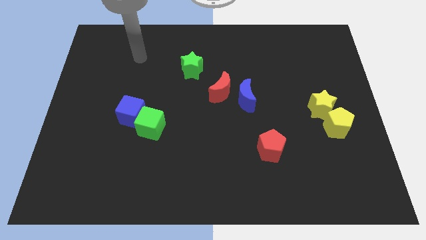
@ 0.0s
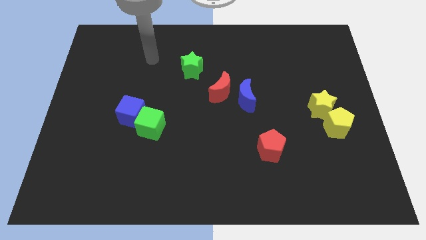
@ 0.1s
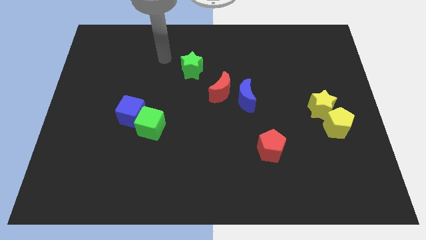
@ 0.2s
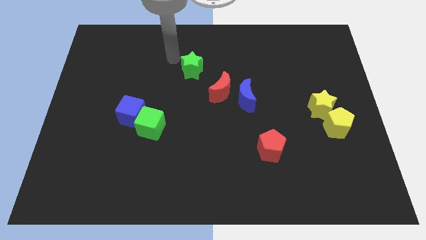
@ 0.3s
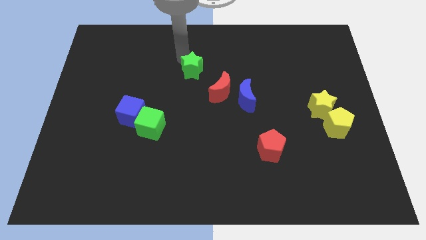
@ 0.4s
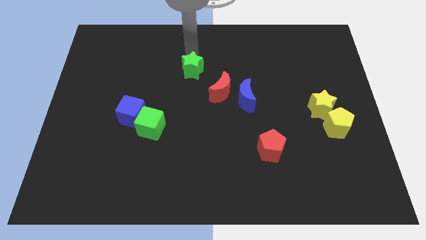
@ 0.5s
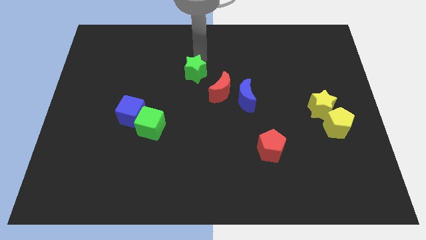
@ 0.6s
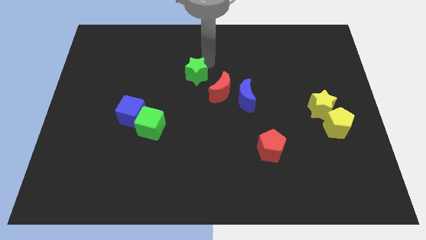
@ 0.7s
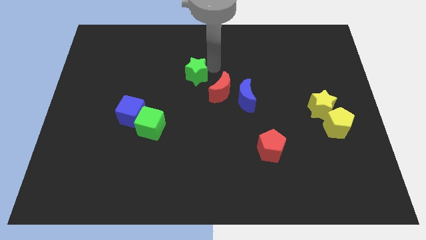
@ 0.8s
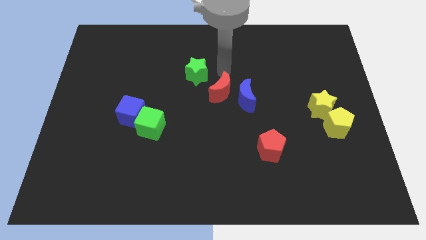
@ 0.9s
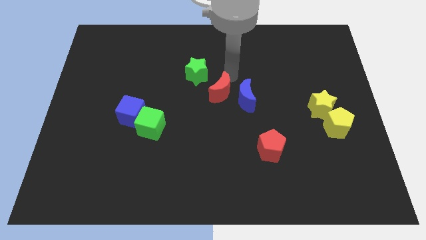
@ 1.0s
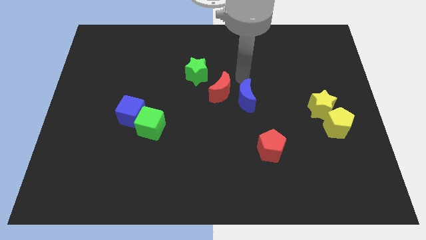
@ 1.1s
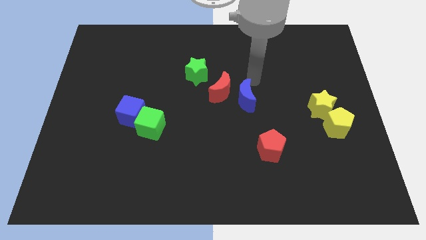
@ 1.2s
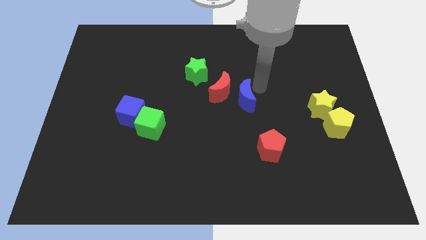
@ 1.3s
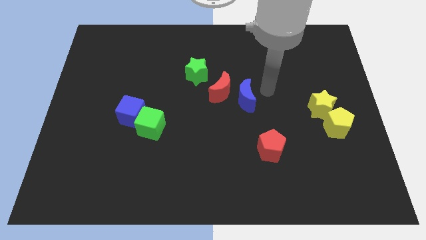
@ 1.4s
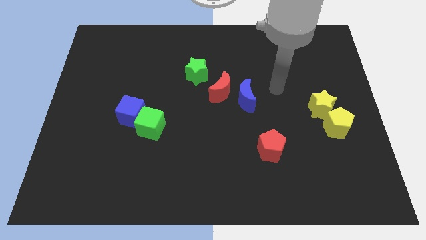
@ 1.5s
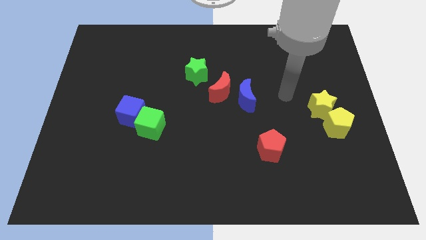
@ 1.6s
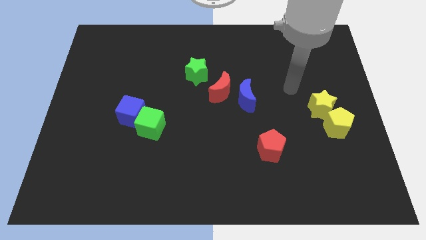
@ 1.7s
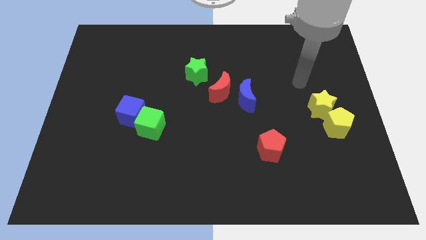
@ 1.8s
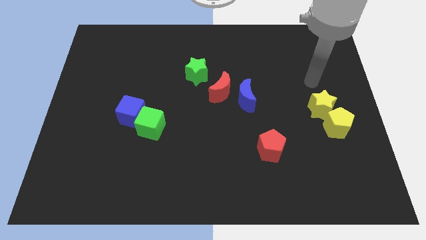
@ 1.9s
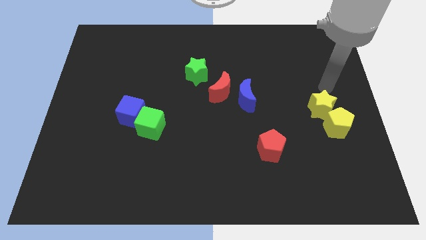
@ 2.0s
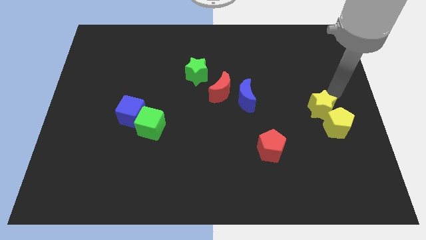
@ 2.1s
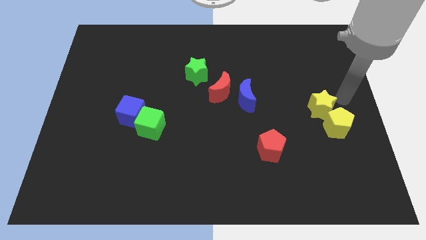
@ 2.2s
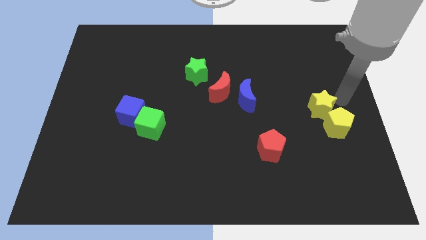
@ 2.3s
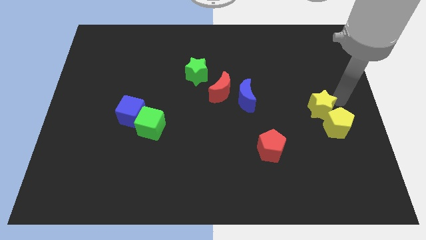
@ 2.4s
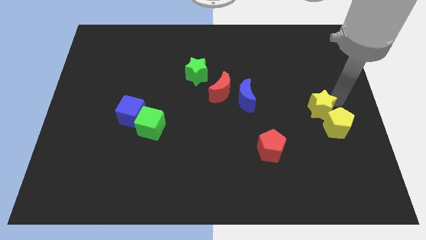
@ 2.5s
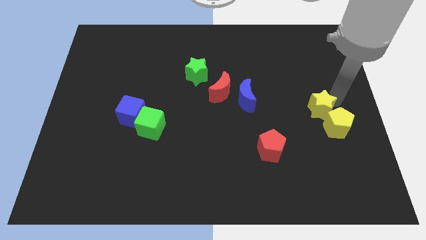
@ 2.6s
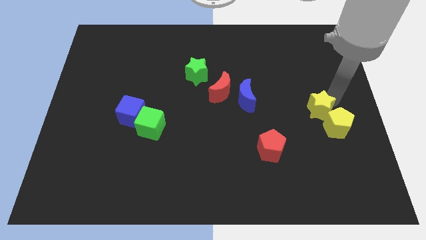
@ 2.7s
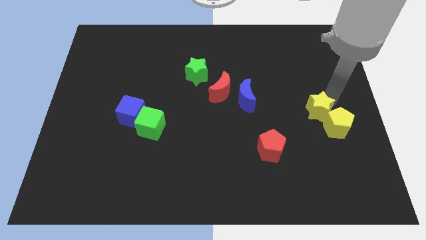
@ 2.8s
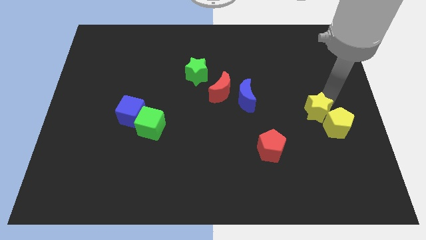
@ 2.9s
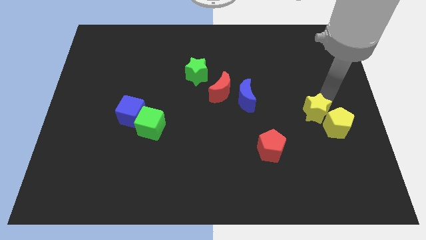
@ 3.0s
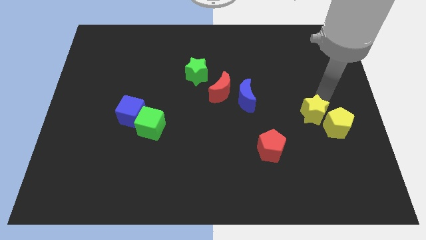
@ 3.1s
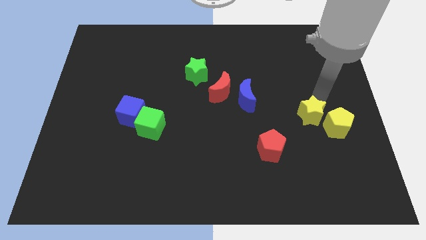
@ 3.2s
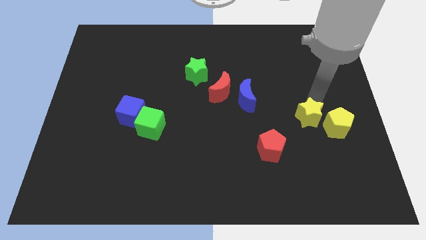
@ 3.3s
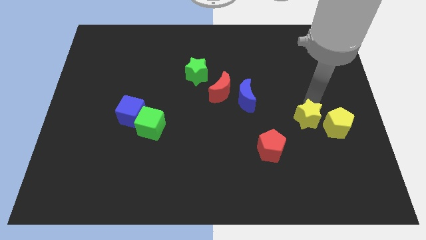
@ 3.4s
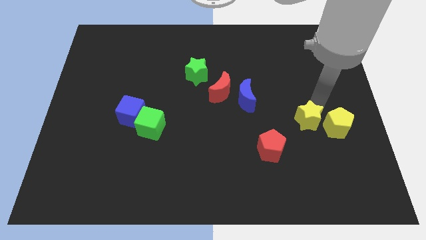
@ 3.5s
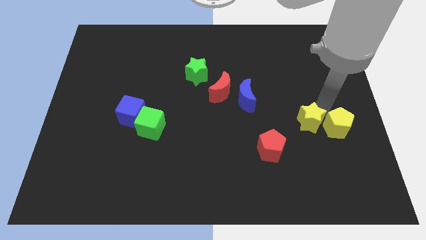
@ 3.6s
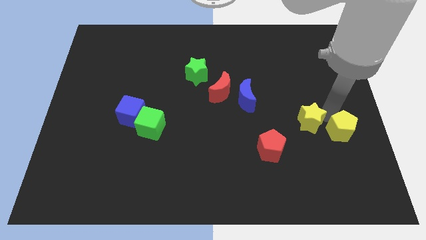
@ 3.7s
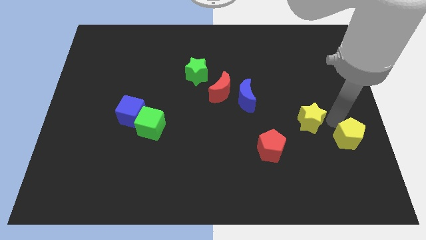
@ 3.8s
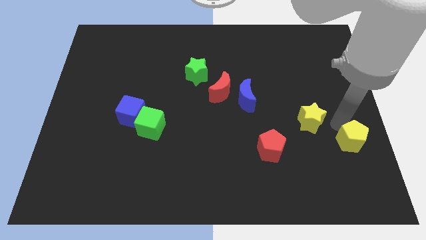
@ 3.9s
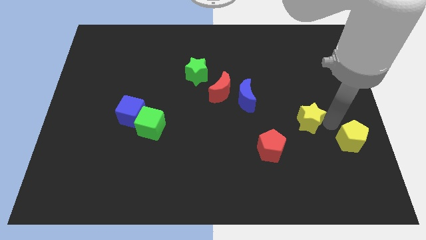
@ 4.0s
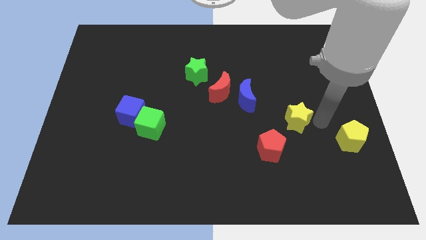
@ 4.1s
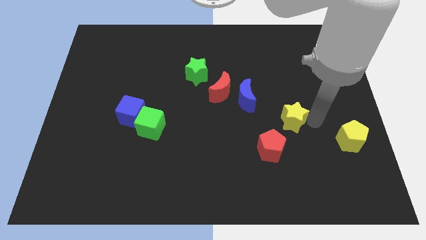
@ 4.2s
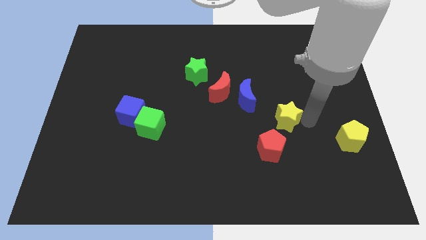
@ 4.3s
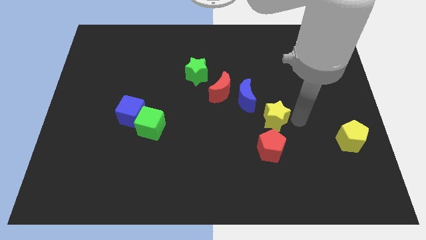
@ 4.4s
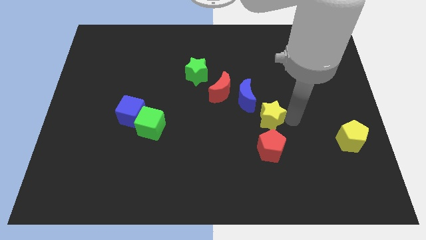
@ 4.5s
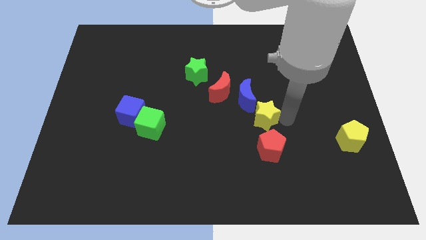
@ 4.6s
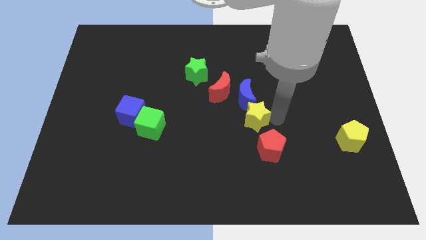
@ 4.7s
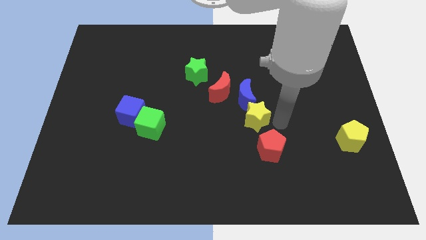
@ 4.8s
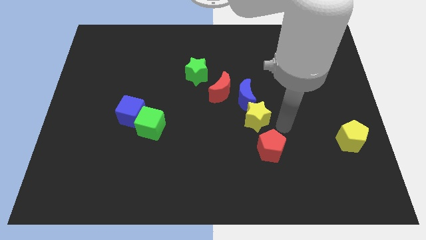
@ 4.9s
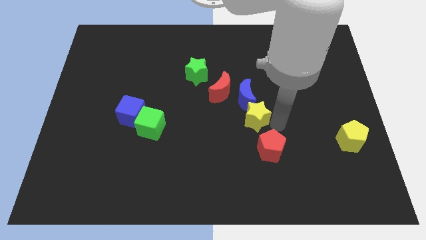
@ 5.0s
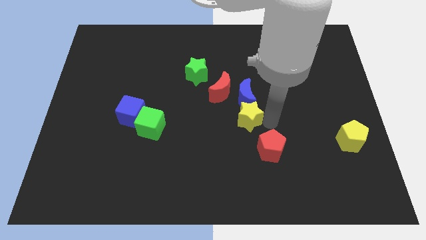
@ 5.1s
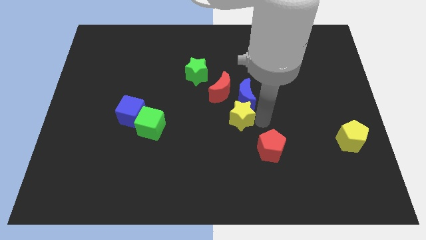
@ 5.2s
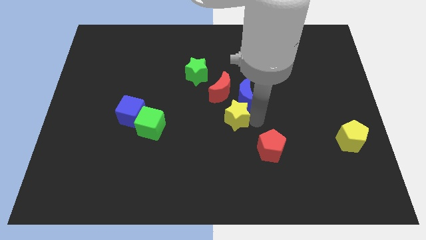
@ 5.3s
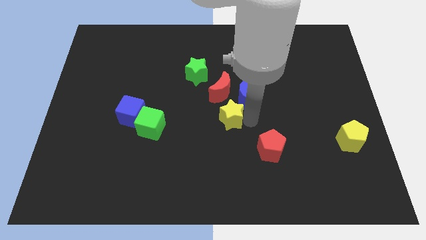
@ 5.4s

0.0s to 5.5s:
move the yellow star left

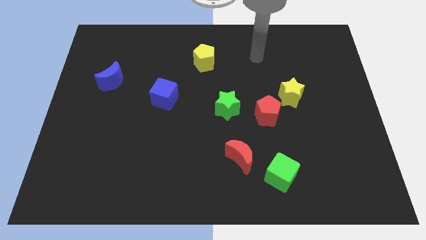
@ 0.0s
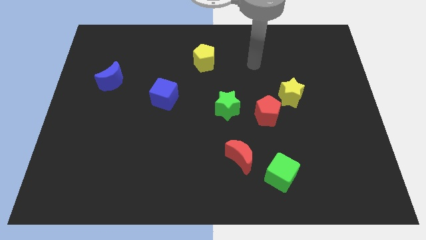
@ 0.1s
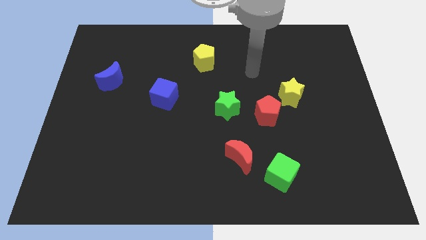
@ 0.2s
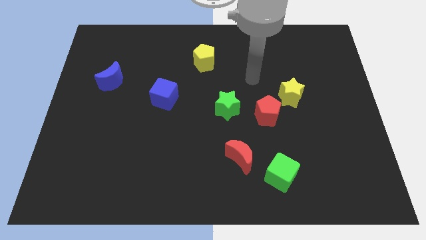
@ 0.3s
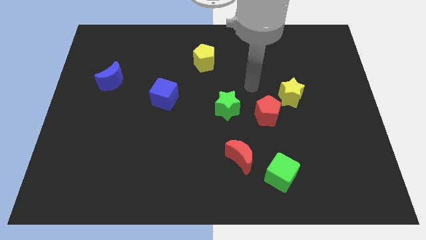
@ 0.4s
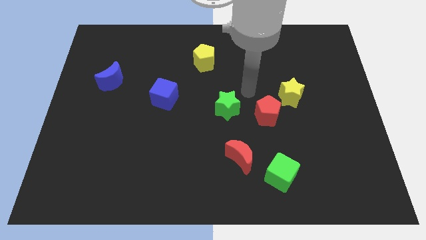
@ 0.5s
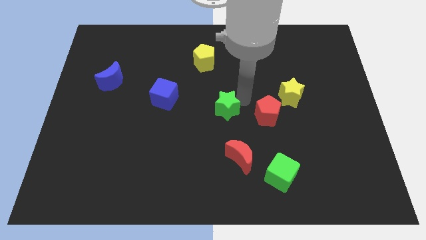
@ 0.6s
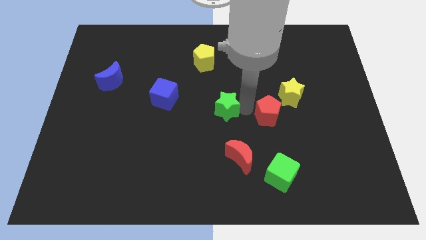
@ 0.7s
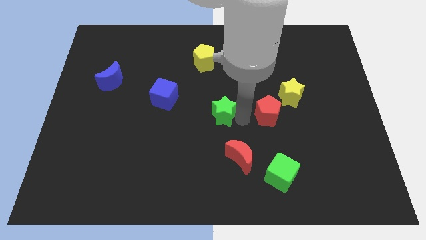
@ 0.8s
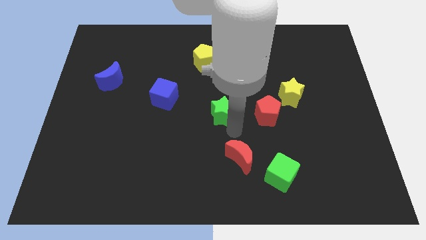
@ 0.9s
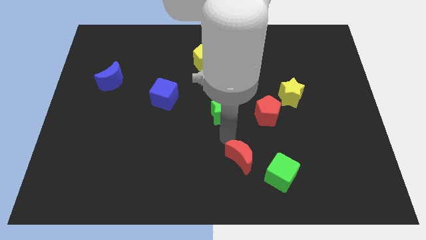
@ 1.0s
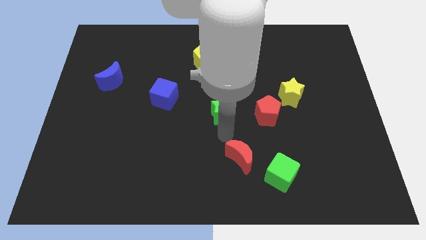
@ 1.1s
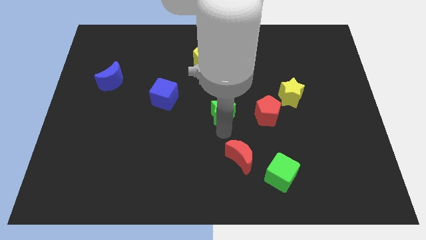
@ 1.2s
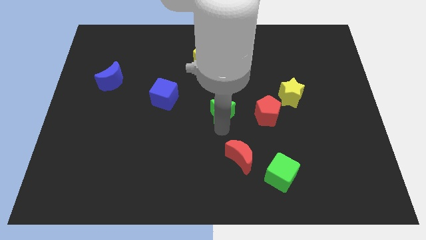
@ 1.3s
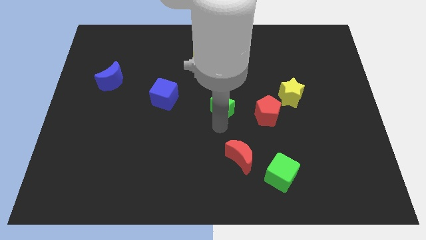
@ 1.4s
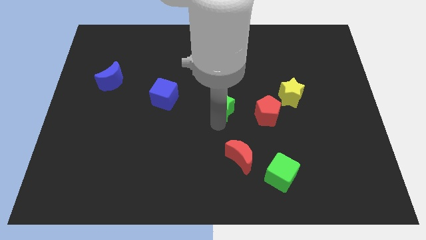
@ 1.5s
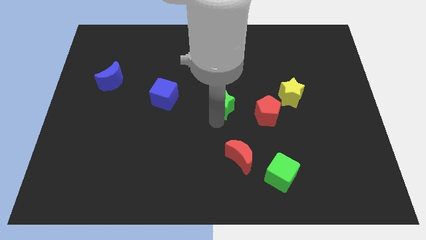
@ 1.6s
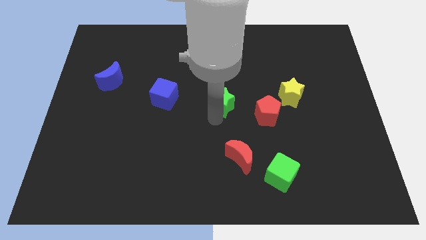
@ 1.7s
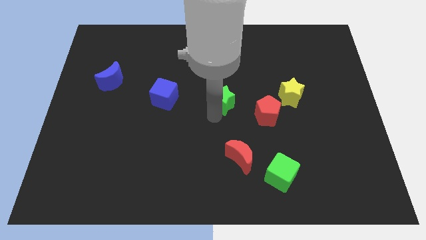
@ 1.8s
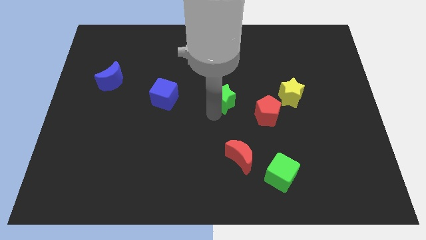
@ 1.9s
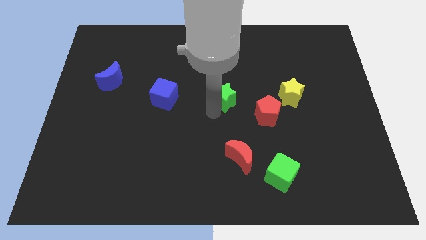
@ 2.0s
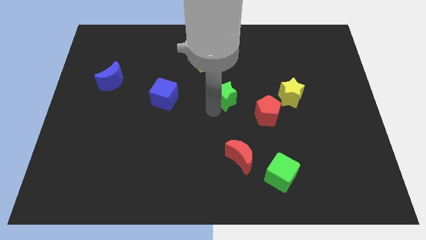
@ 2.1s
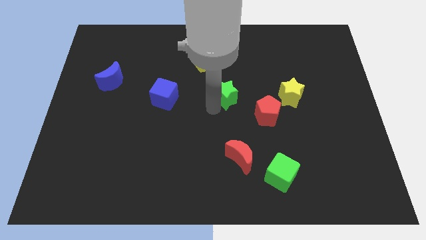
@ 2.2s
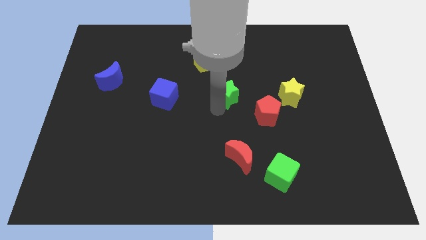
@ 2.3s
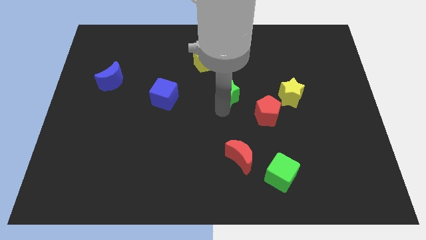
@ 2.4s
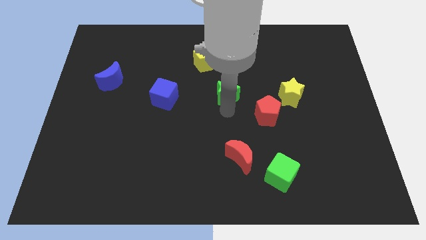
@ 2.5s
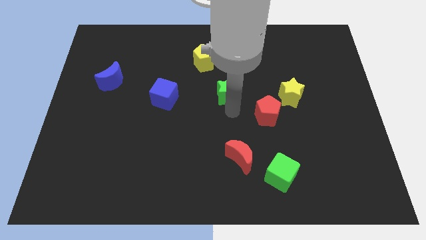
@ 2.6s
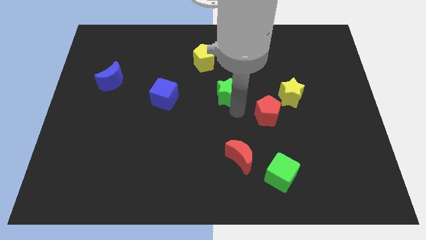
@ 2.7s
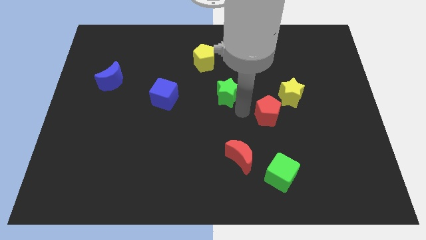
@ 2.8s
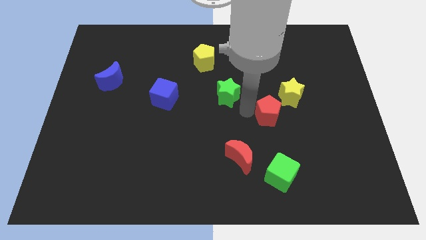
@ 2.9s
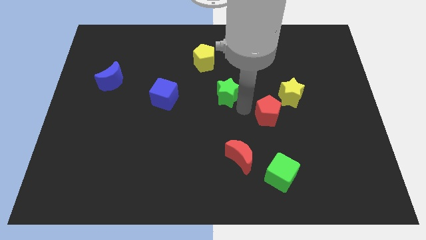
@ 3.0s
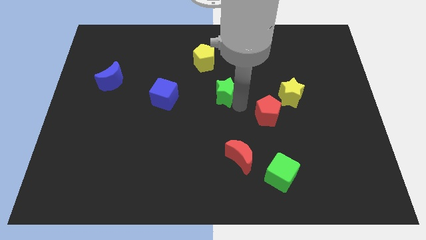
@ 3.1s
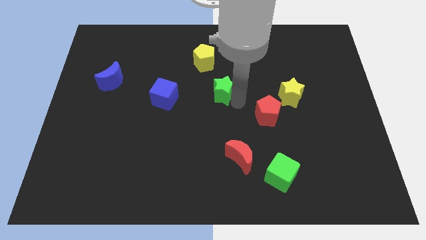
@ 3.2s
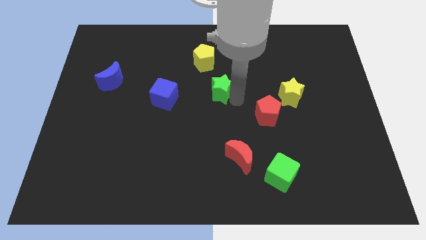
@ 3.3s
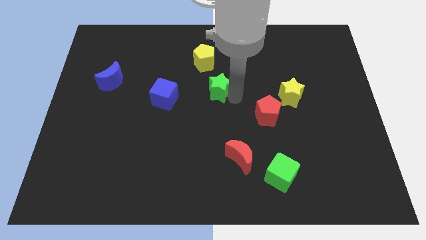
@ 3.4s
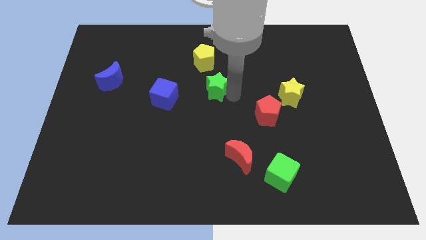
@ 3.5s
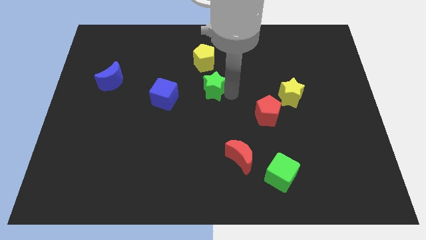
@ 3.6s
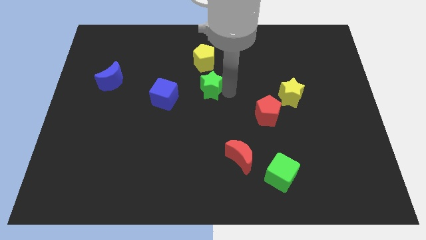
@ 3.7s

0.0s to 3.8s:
slightly slide the green star up and left
